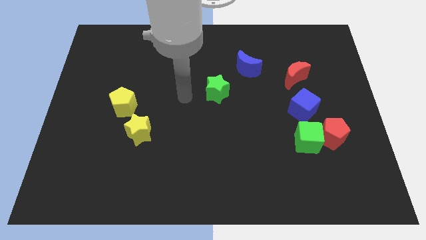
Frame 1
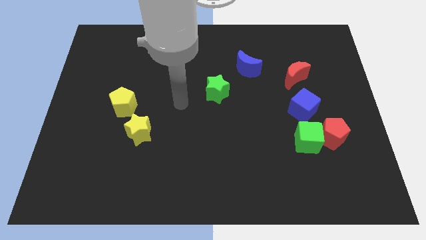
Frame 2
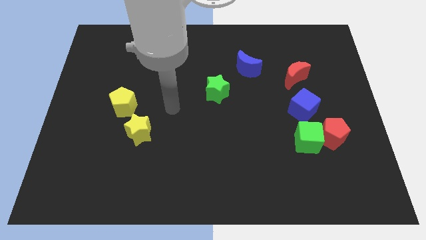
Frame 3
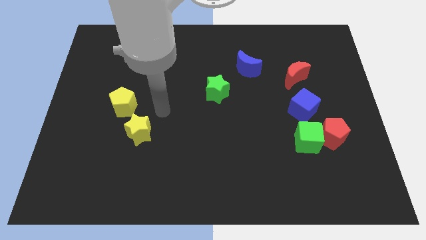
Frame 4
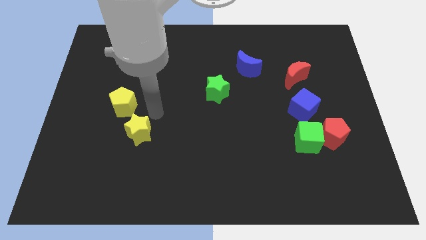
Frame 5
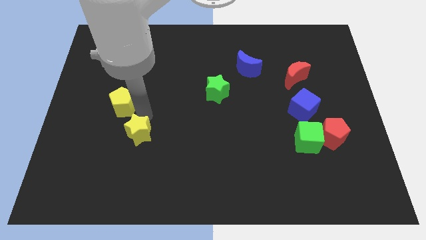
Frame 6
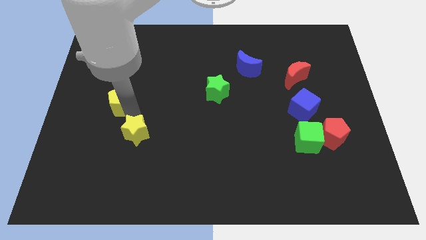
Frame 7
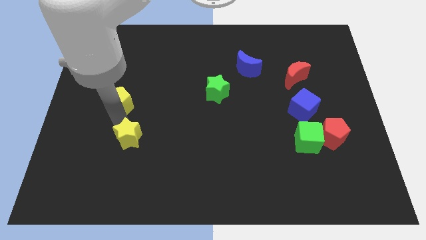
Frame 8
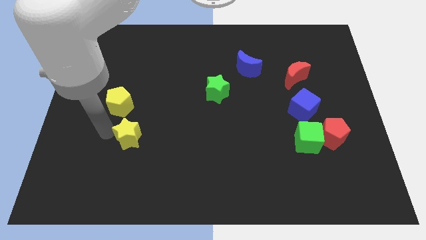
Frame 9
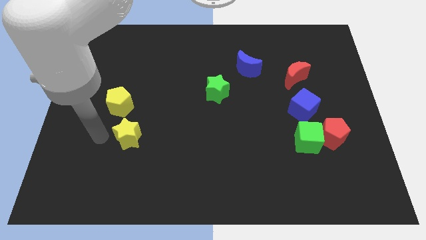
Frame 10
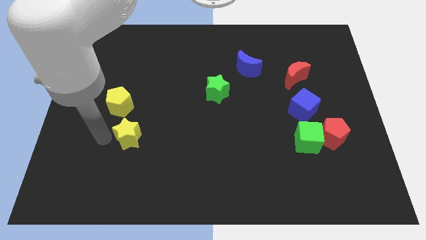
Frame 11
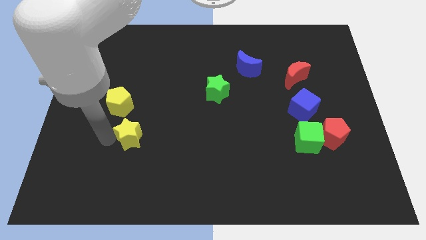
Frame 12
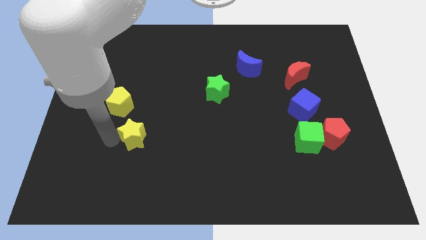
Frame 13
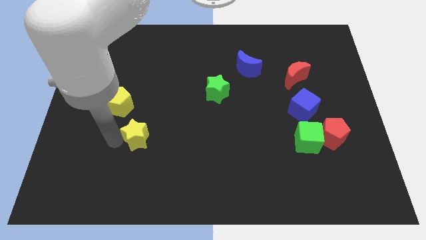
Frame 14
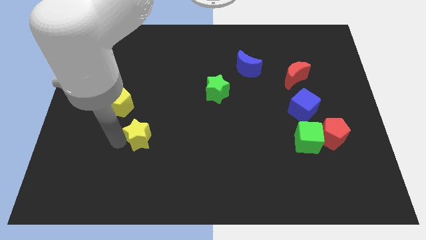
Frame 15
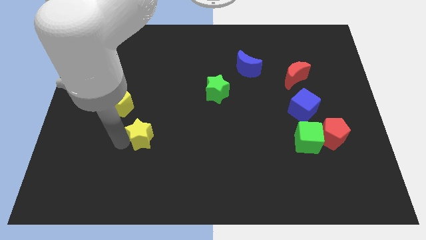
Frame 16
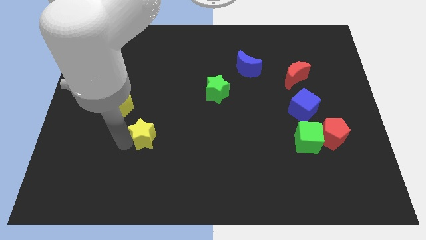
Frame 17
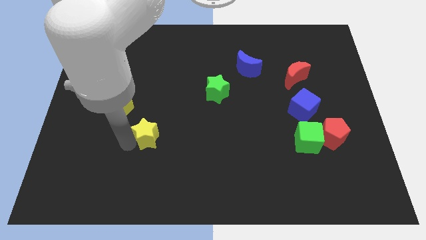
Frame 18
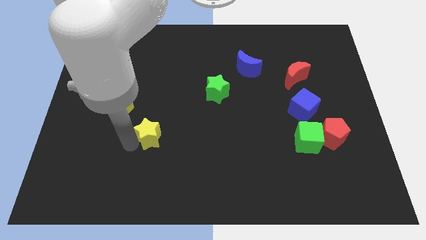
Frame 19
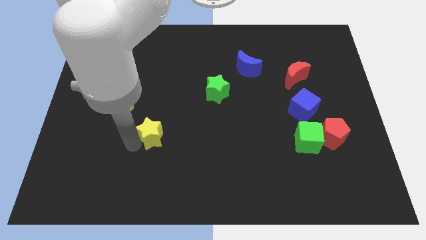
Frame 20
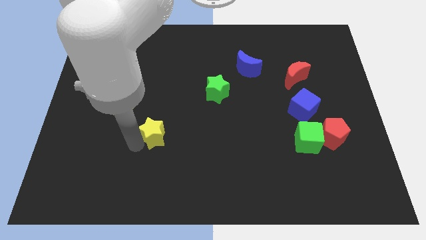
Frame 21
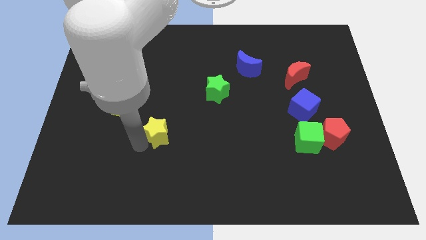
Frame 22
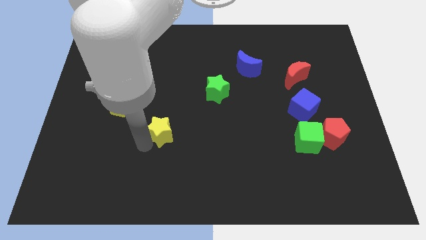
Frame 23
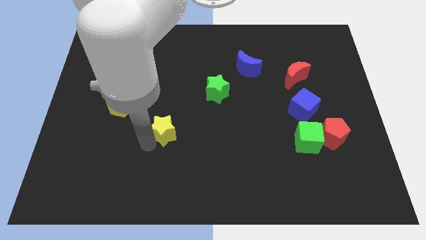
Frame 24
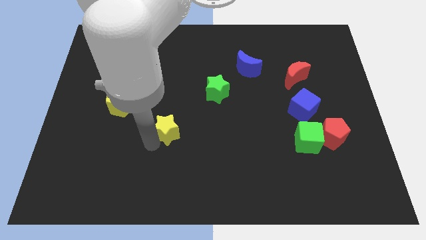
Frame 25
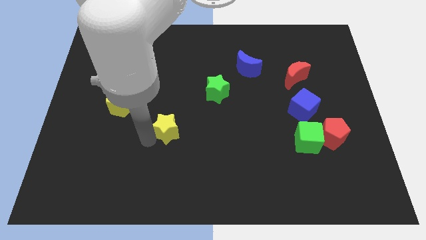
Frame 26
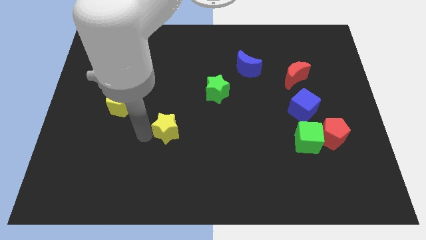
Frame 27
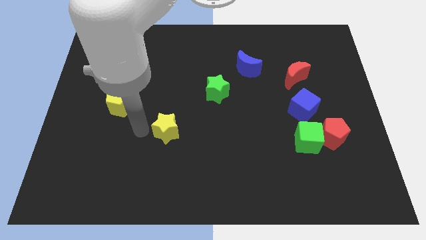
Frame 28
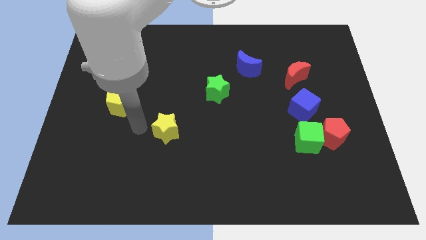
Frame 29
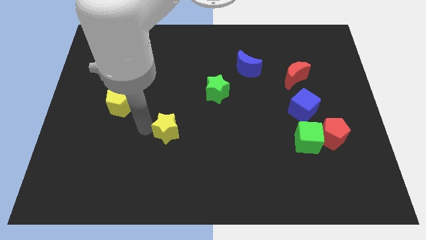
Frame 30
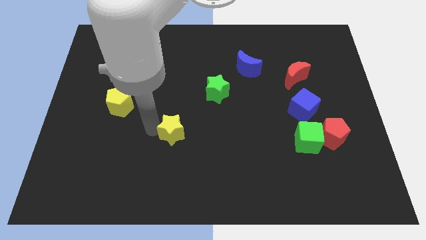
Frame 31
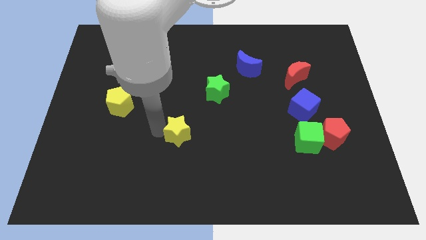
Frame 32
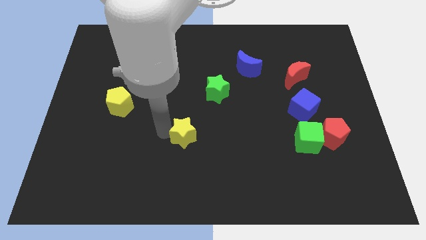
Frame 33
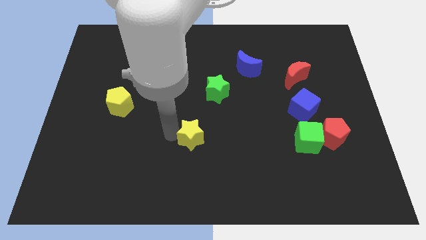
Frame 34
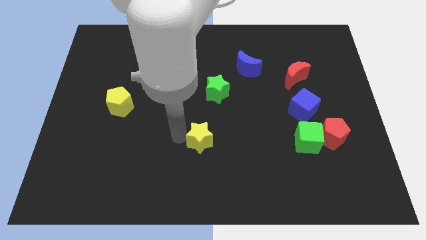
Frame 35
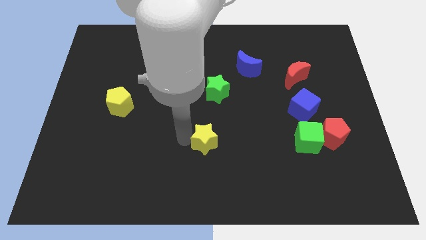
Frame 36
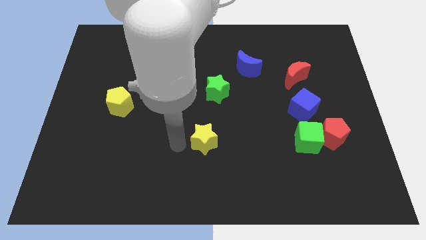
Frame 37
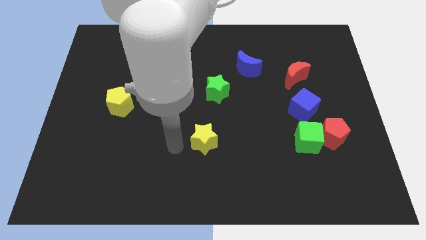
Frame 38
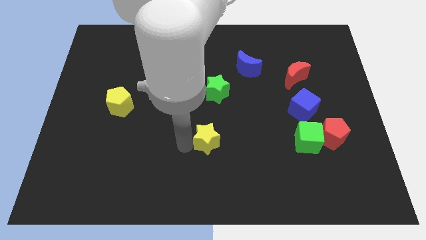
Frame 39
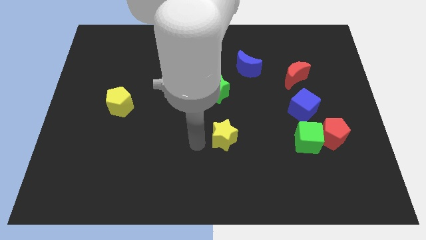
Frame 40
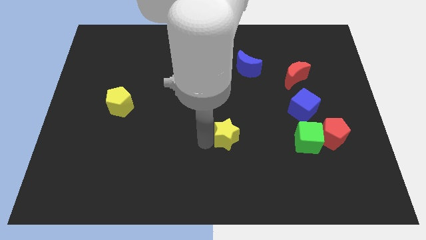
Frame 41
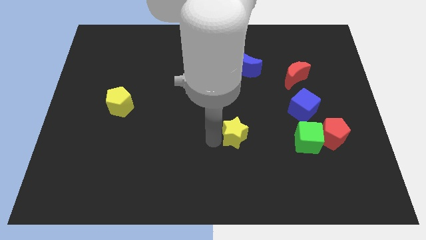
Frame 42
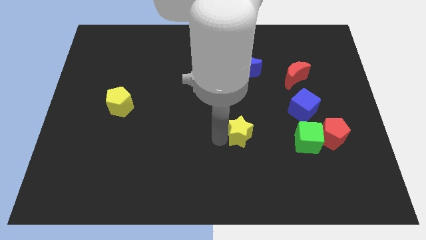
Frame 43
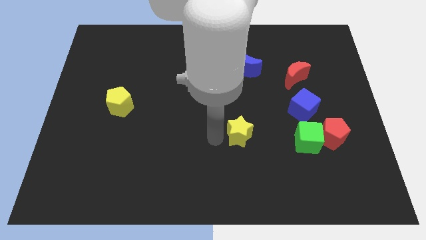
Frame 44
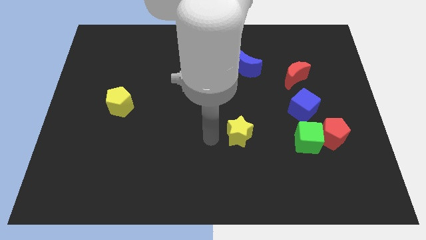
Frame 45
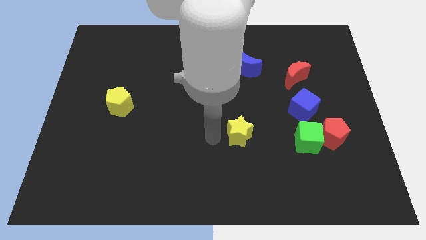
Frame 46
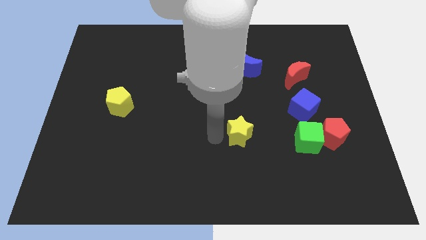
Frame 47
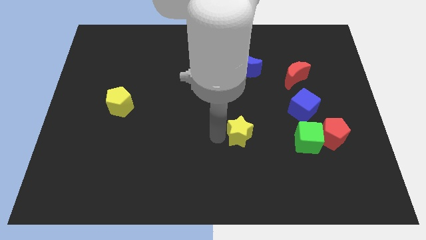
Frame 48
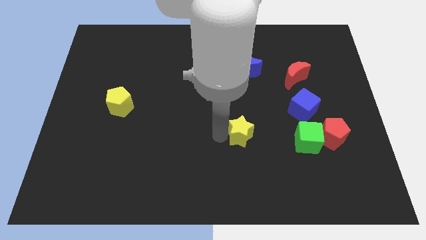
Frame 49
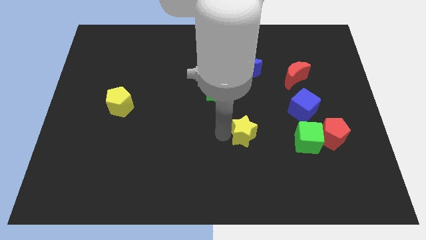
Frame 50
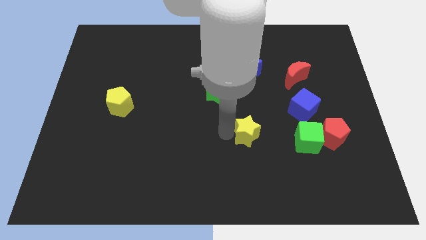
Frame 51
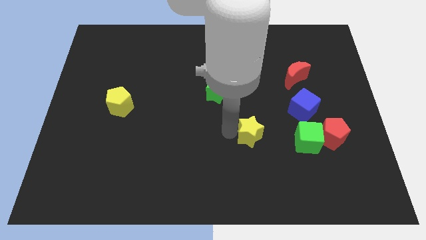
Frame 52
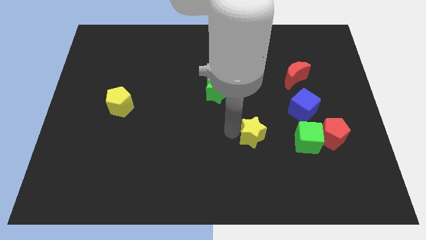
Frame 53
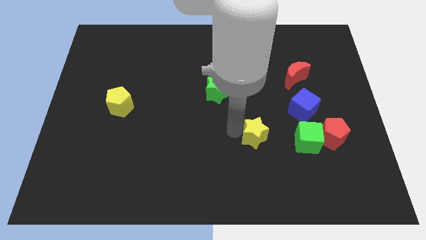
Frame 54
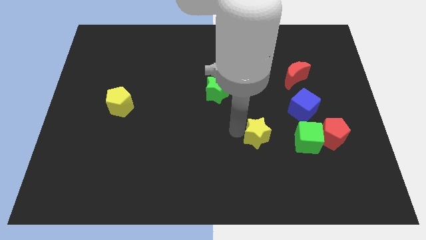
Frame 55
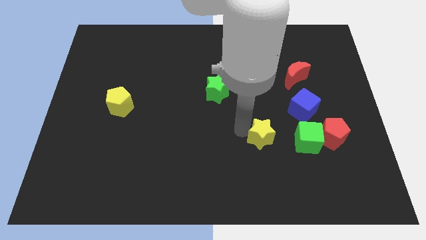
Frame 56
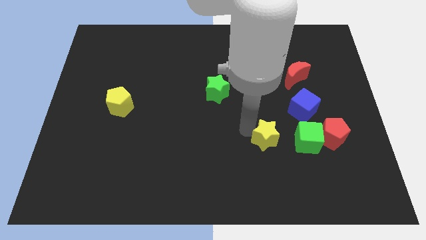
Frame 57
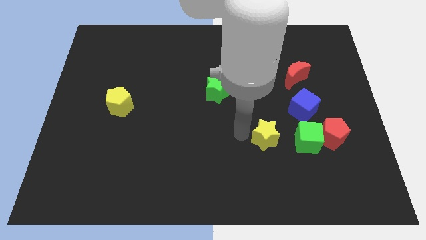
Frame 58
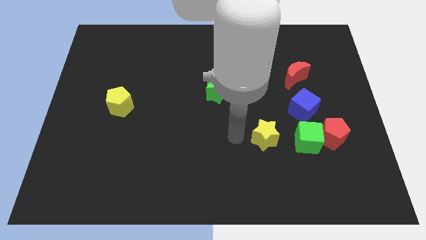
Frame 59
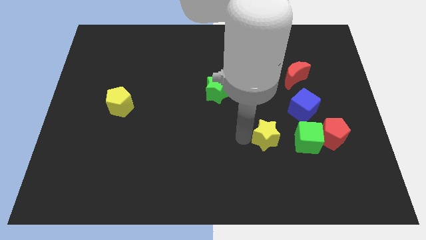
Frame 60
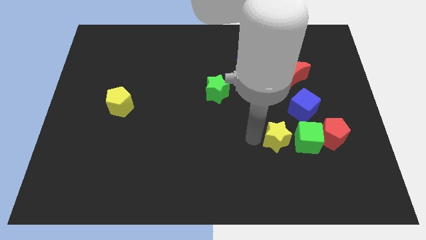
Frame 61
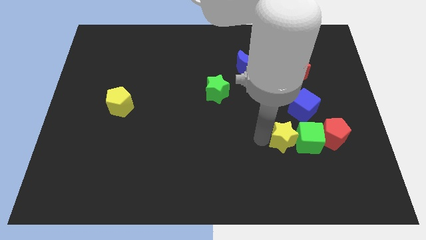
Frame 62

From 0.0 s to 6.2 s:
put the yellow star towards the green cube
